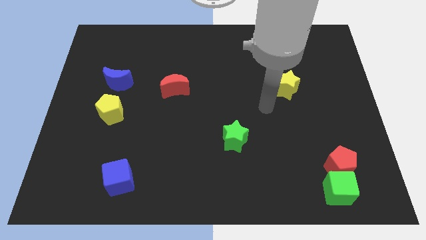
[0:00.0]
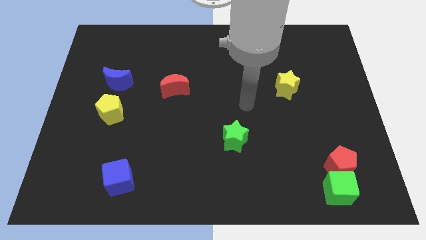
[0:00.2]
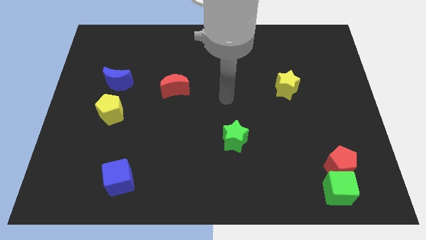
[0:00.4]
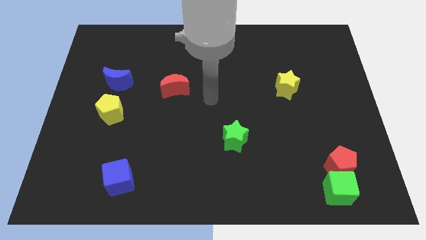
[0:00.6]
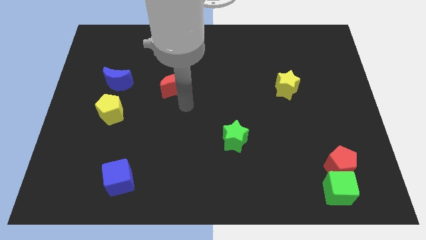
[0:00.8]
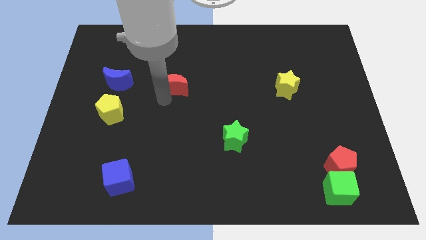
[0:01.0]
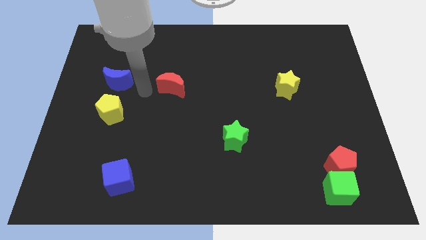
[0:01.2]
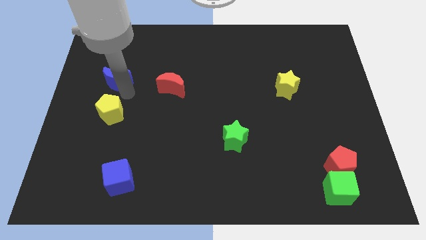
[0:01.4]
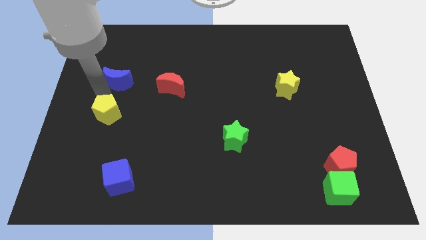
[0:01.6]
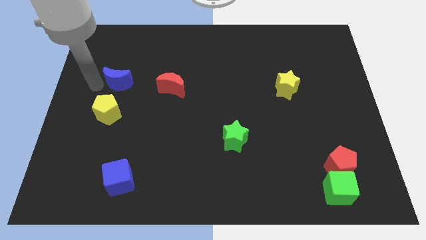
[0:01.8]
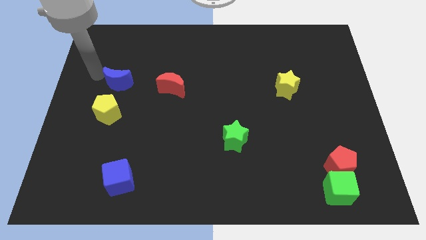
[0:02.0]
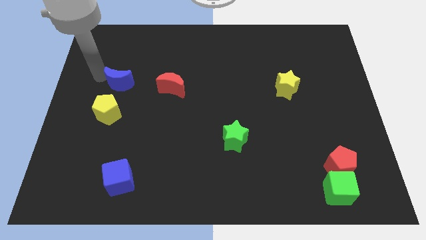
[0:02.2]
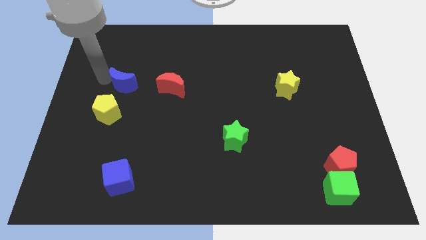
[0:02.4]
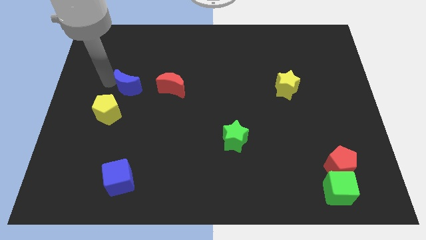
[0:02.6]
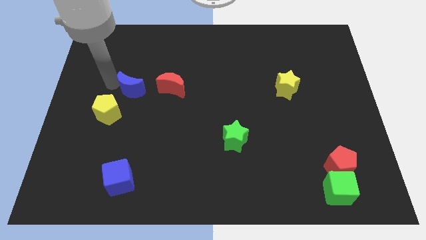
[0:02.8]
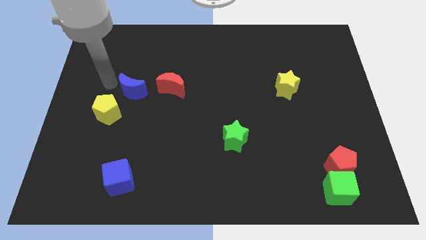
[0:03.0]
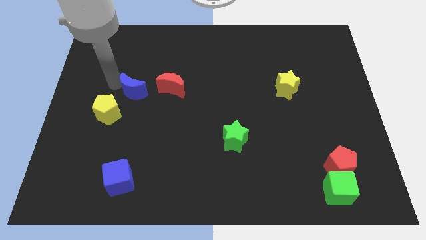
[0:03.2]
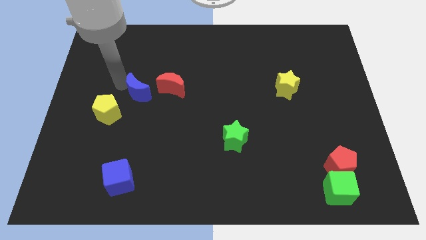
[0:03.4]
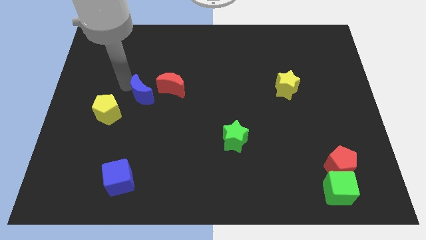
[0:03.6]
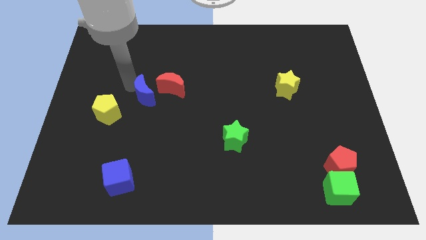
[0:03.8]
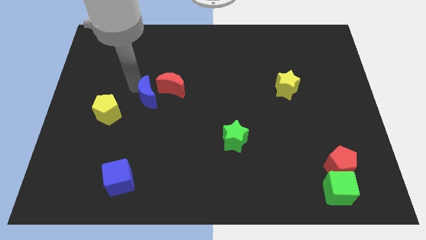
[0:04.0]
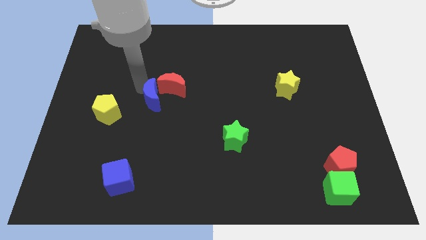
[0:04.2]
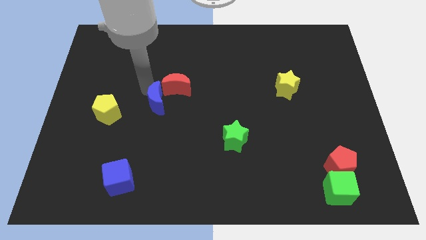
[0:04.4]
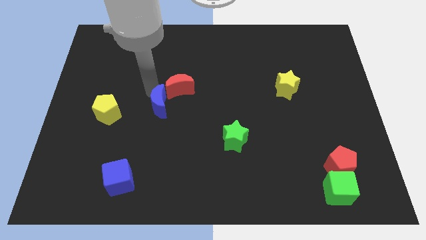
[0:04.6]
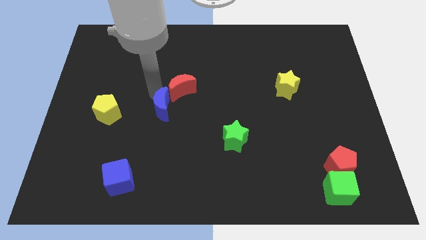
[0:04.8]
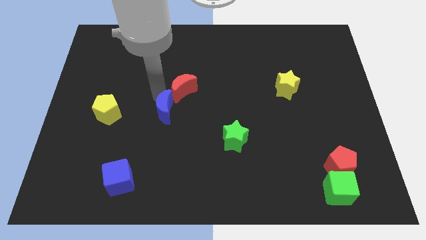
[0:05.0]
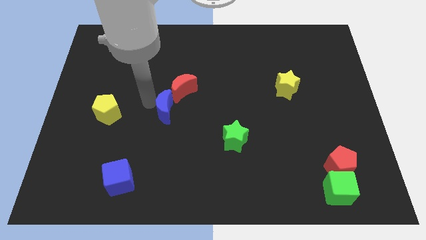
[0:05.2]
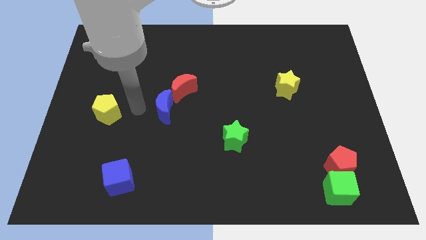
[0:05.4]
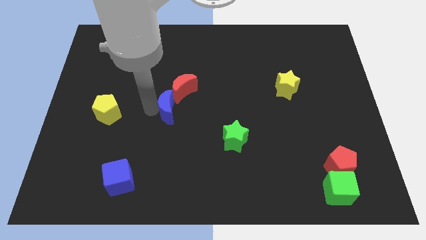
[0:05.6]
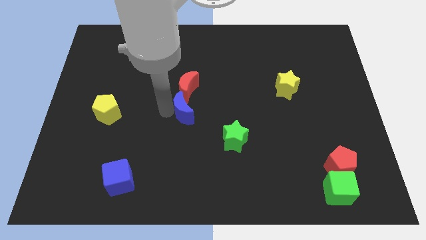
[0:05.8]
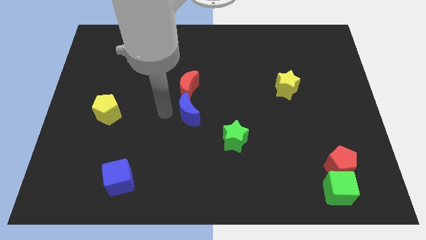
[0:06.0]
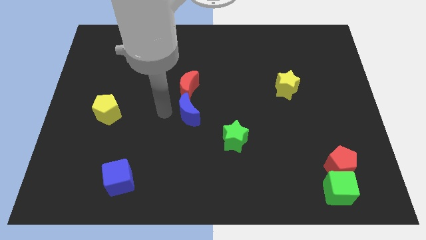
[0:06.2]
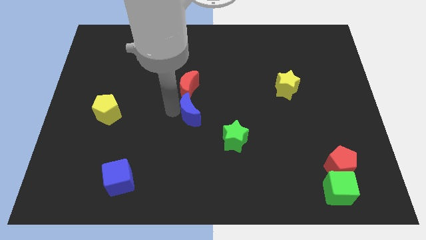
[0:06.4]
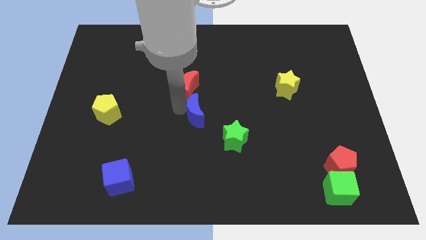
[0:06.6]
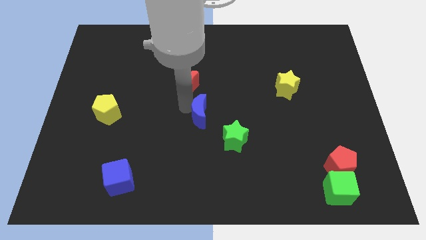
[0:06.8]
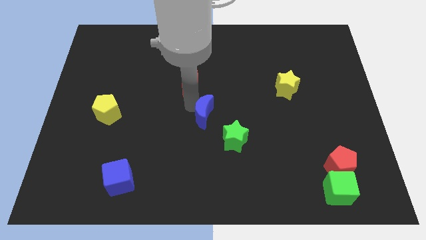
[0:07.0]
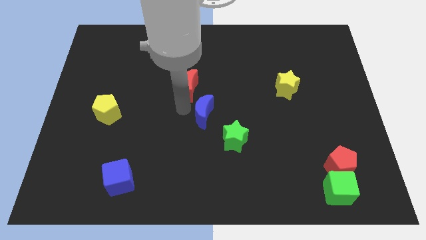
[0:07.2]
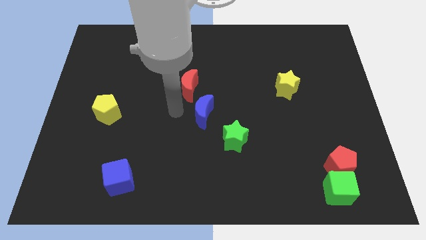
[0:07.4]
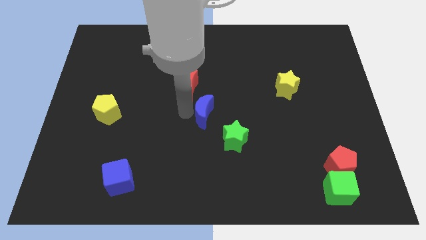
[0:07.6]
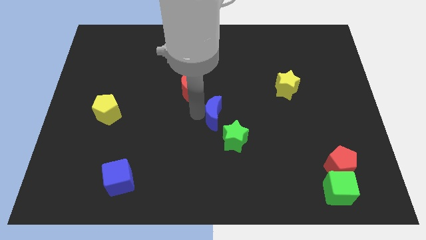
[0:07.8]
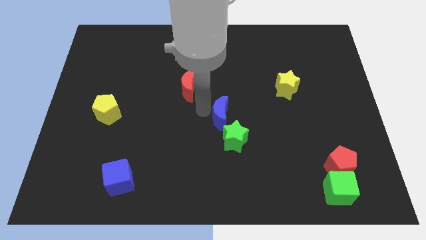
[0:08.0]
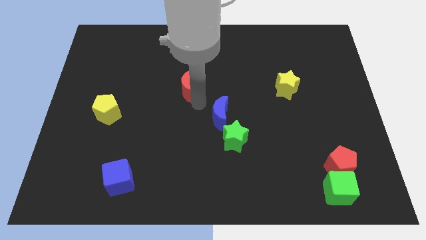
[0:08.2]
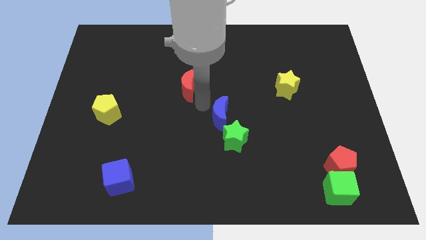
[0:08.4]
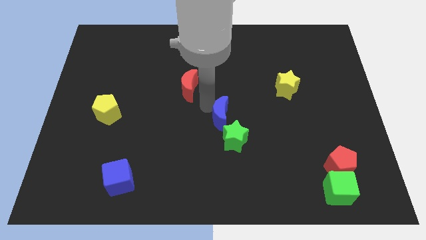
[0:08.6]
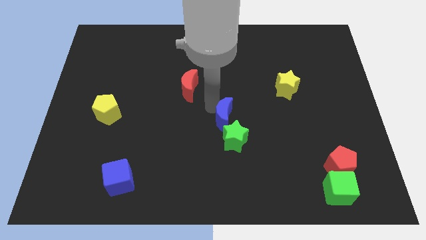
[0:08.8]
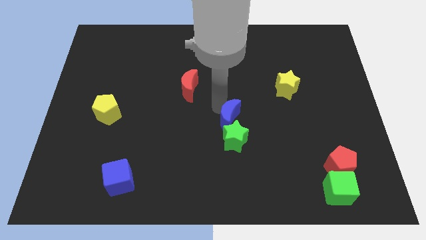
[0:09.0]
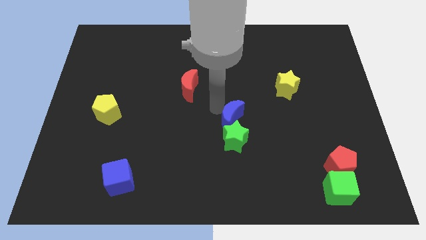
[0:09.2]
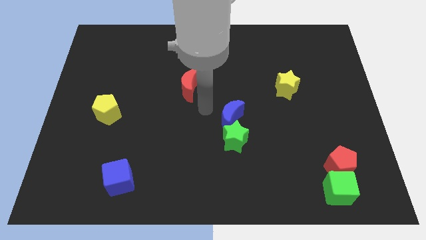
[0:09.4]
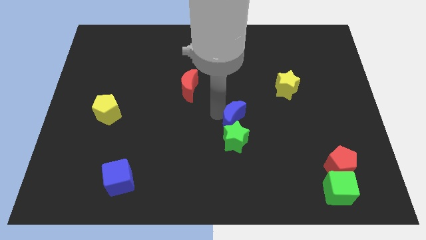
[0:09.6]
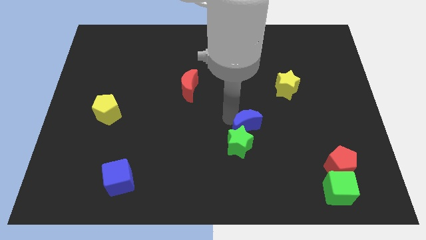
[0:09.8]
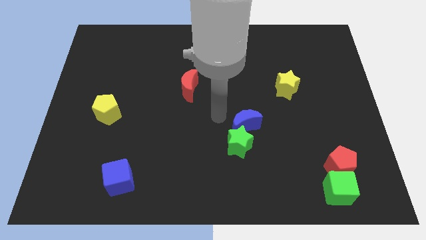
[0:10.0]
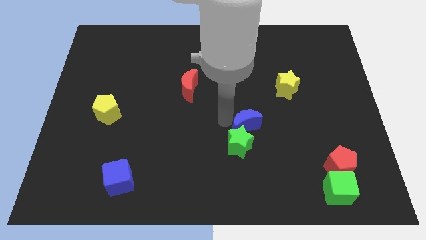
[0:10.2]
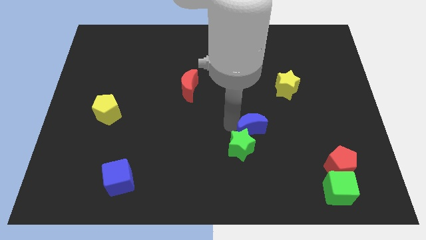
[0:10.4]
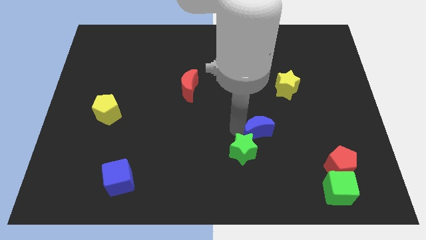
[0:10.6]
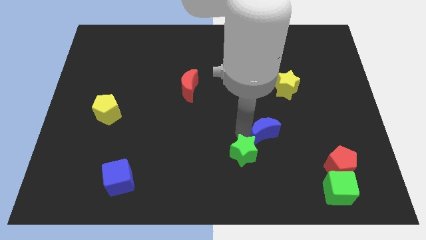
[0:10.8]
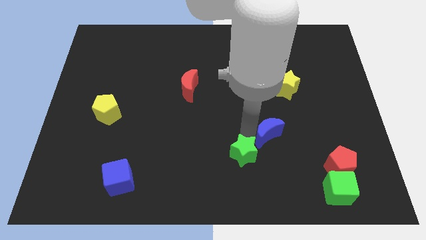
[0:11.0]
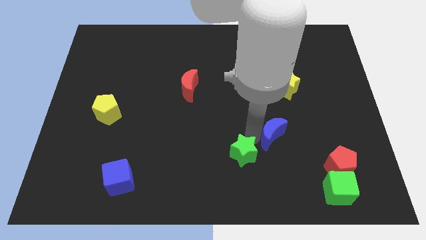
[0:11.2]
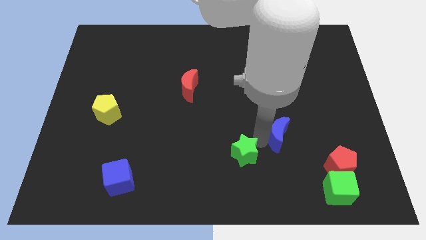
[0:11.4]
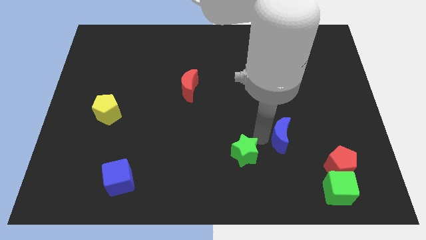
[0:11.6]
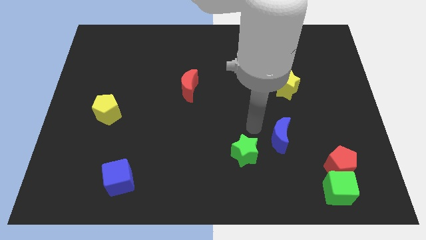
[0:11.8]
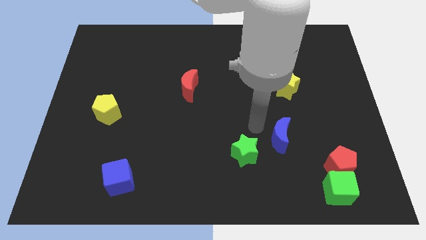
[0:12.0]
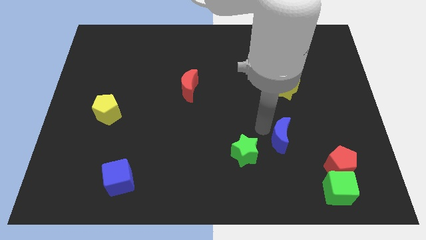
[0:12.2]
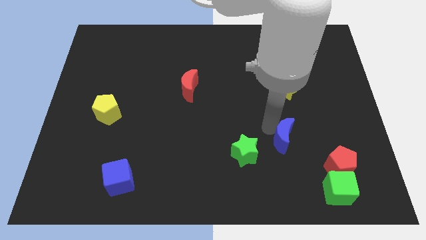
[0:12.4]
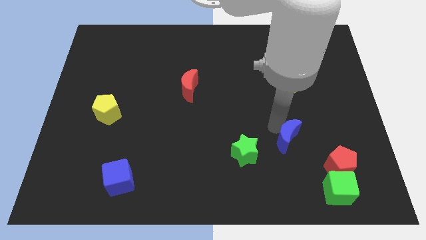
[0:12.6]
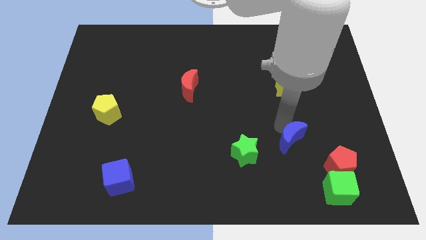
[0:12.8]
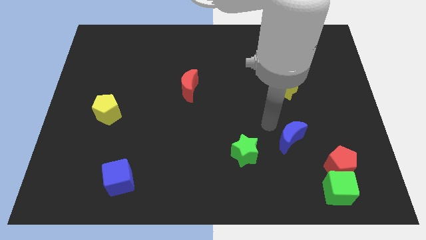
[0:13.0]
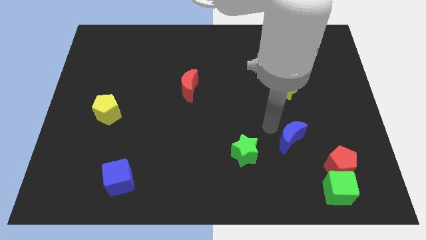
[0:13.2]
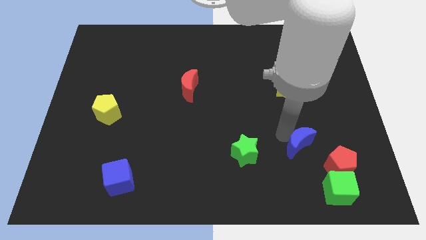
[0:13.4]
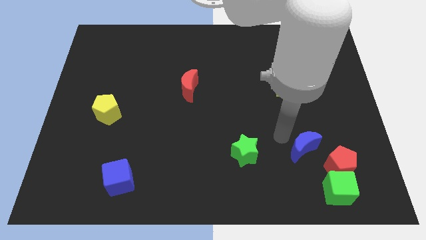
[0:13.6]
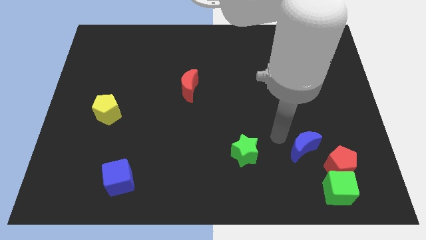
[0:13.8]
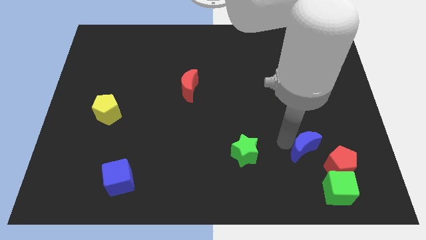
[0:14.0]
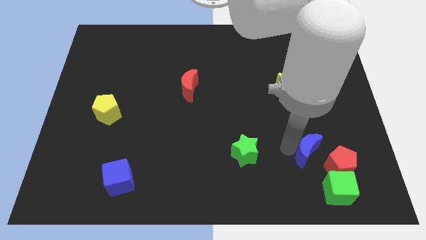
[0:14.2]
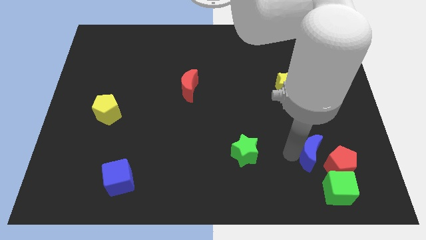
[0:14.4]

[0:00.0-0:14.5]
move the blue moon to the red pentagon
